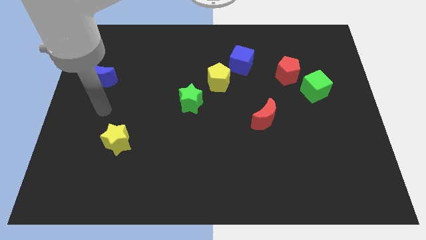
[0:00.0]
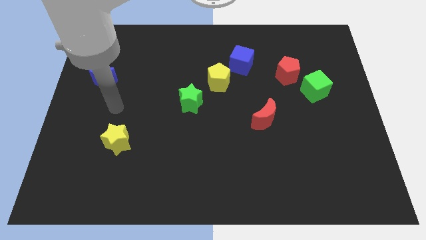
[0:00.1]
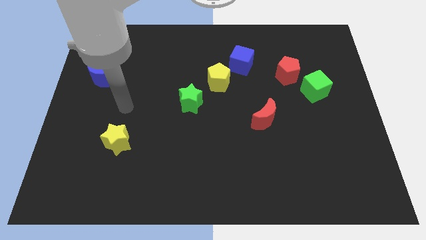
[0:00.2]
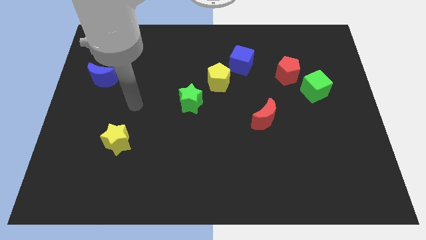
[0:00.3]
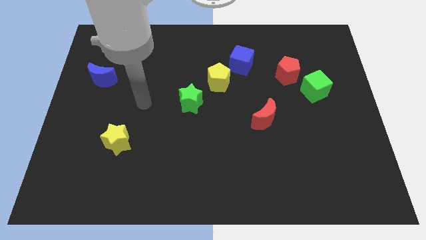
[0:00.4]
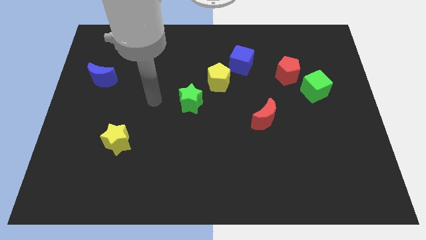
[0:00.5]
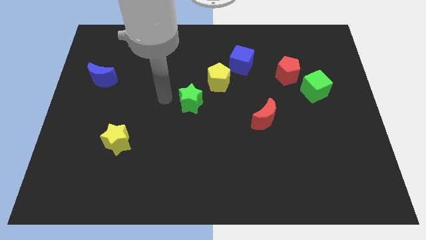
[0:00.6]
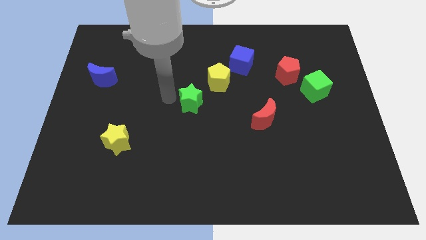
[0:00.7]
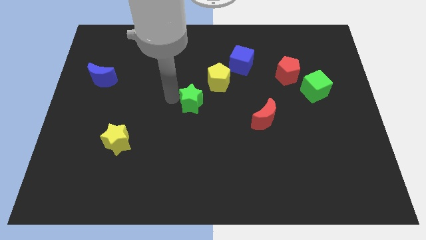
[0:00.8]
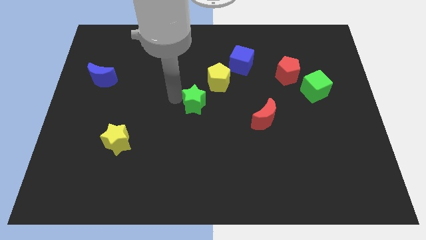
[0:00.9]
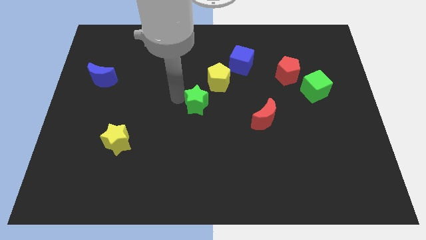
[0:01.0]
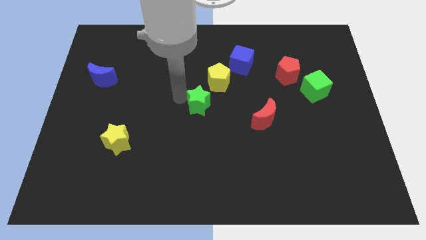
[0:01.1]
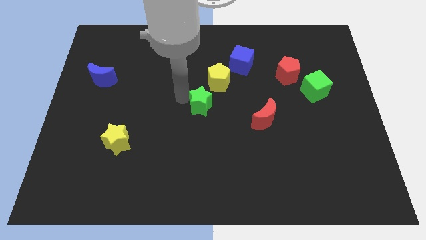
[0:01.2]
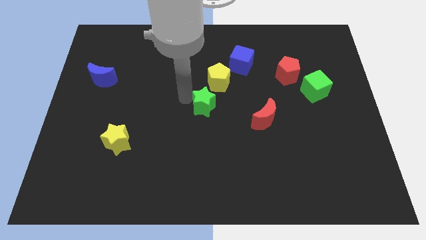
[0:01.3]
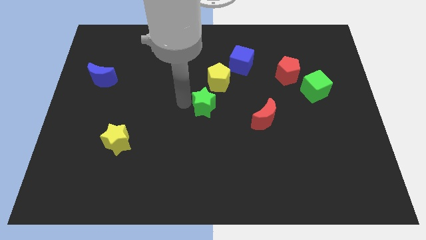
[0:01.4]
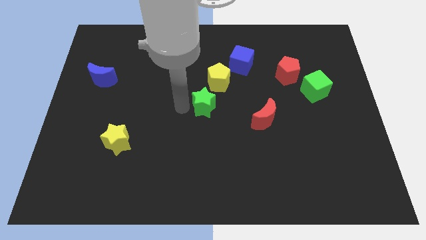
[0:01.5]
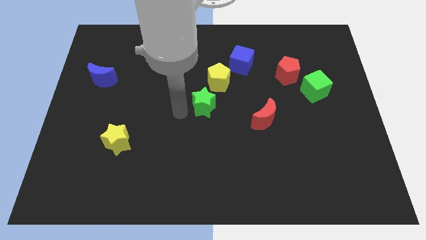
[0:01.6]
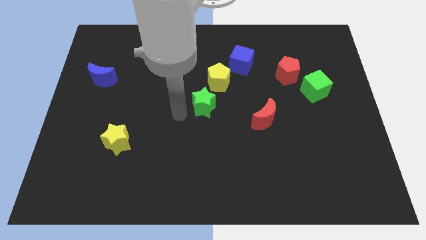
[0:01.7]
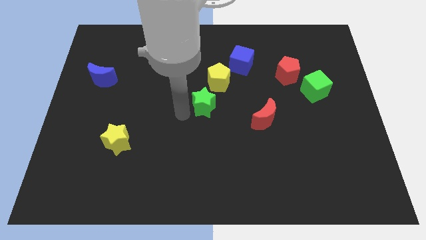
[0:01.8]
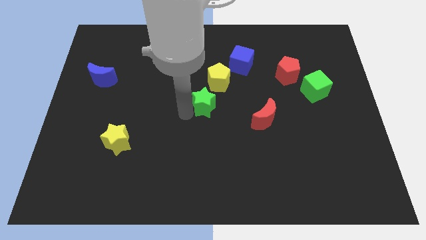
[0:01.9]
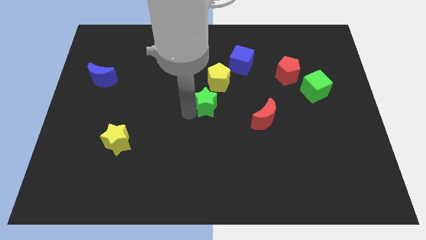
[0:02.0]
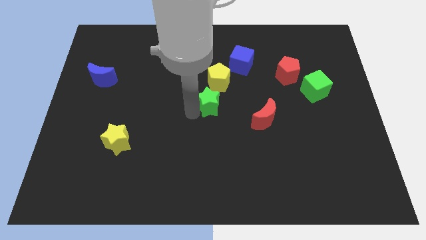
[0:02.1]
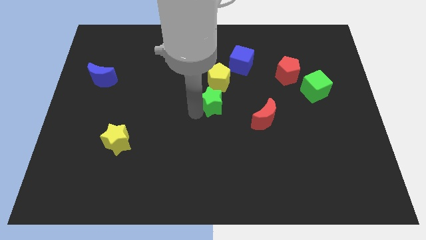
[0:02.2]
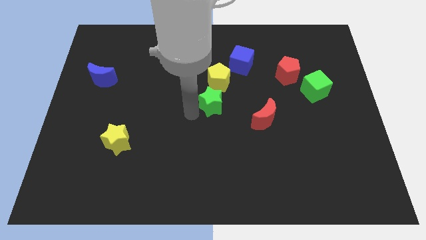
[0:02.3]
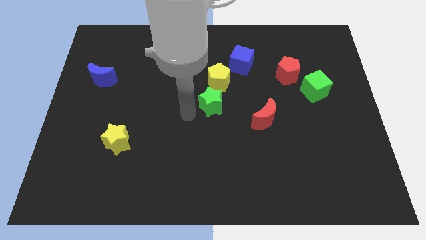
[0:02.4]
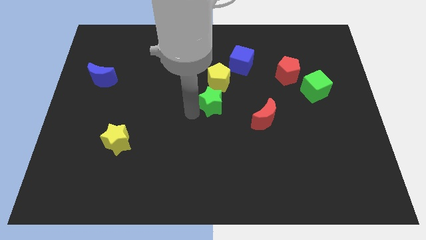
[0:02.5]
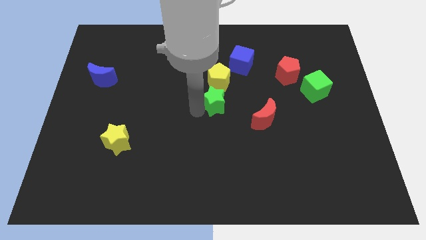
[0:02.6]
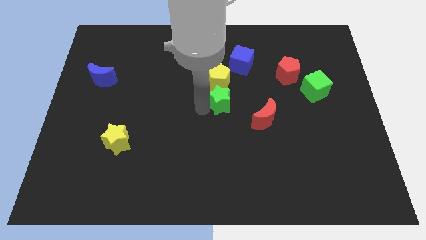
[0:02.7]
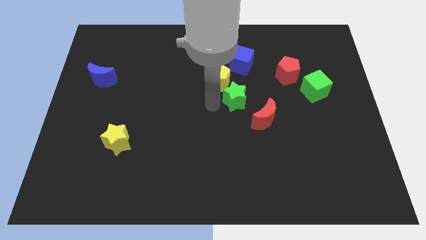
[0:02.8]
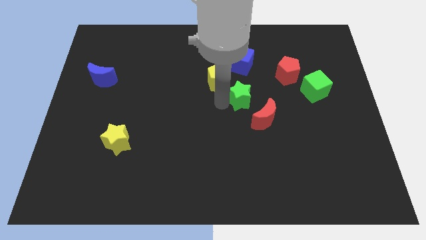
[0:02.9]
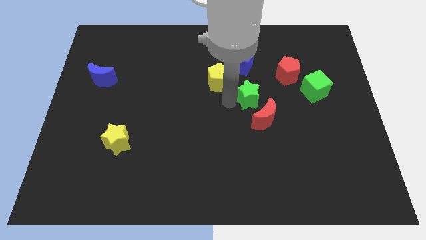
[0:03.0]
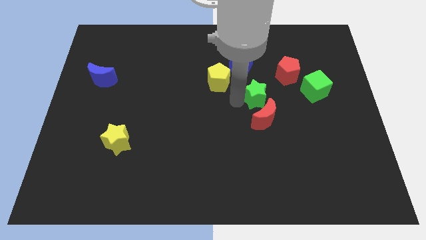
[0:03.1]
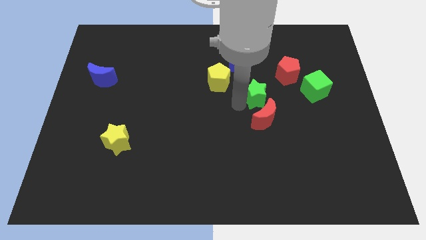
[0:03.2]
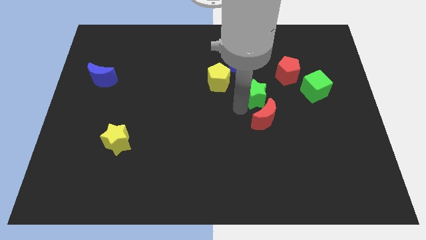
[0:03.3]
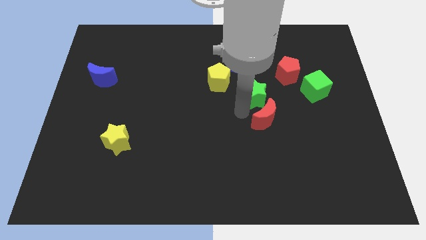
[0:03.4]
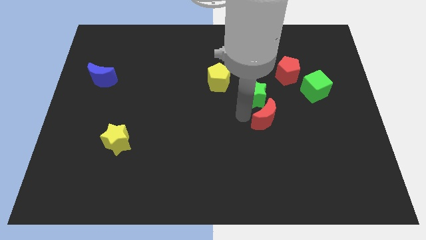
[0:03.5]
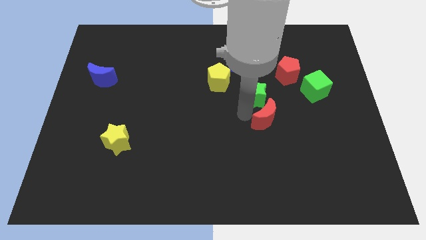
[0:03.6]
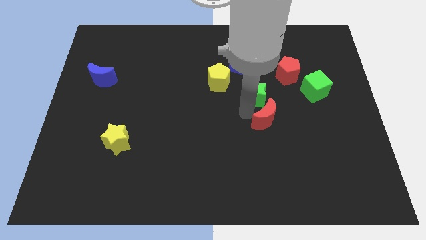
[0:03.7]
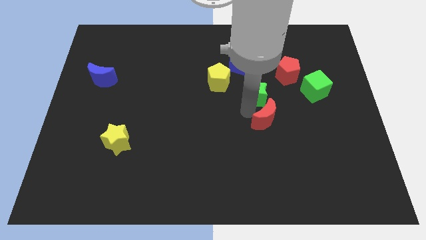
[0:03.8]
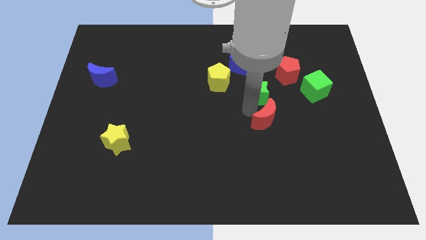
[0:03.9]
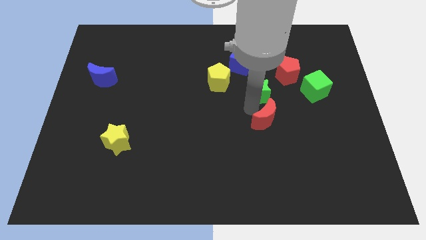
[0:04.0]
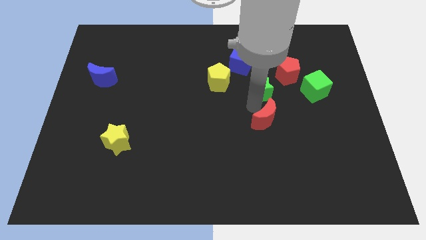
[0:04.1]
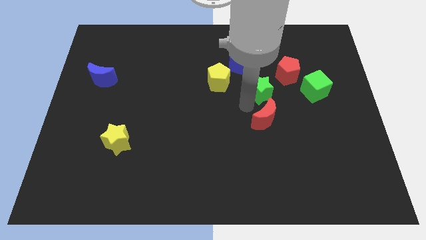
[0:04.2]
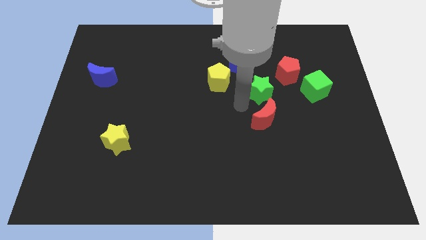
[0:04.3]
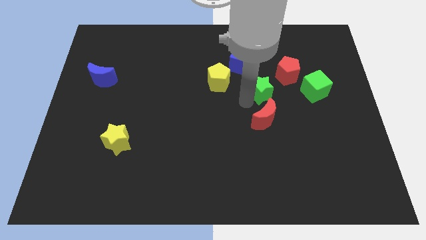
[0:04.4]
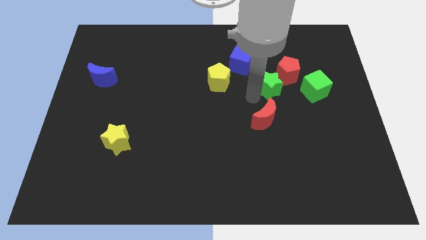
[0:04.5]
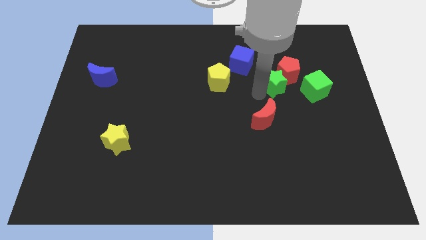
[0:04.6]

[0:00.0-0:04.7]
put the green star towards the red pentagon

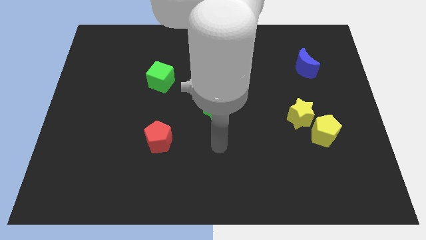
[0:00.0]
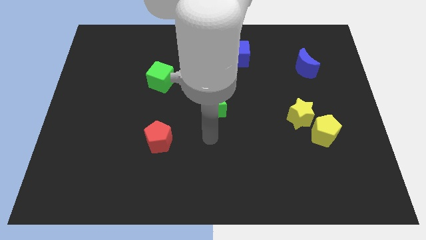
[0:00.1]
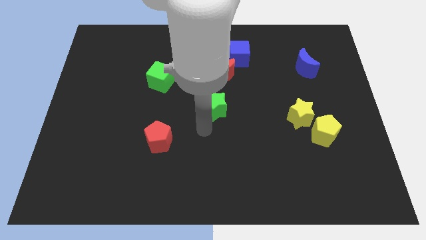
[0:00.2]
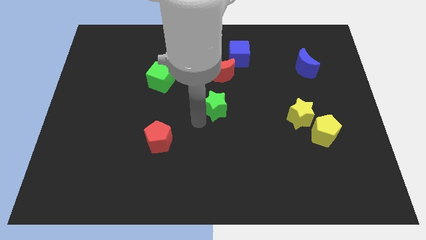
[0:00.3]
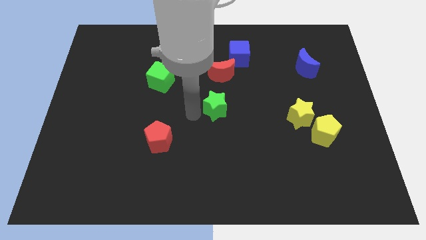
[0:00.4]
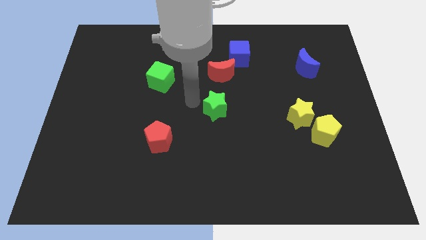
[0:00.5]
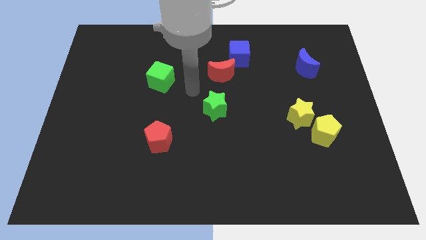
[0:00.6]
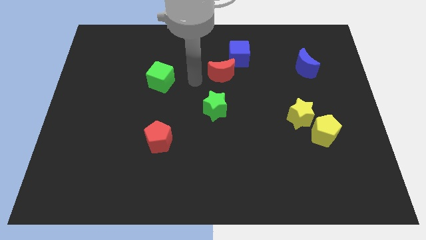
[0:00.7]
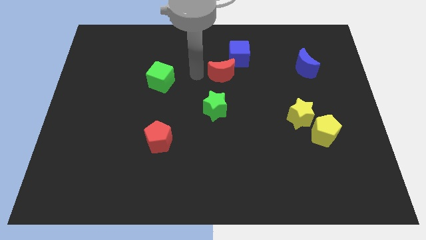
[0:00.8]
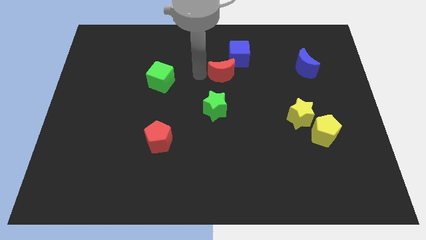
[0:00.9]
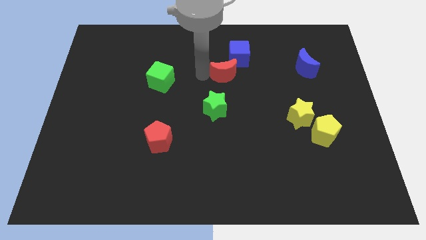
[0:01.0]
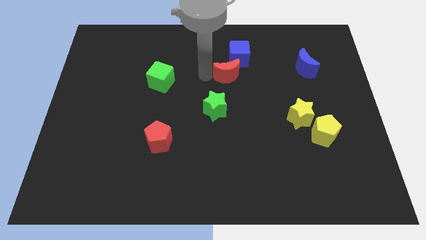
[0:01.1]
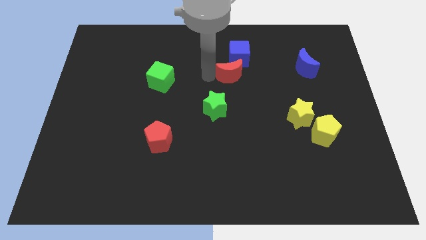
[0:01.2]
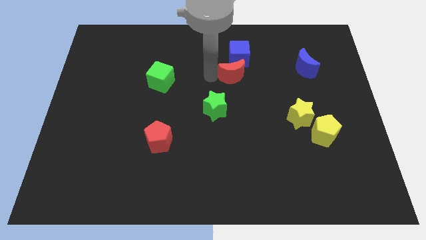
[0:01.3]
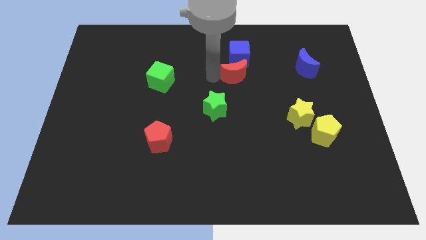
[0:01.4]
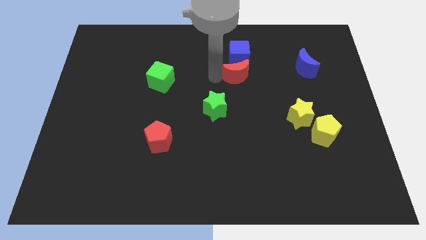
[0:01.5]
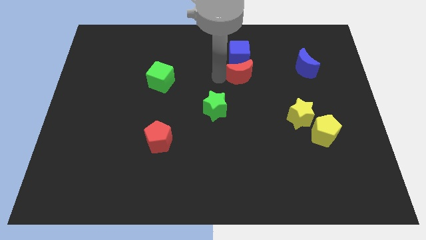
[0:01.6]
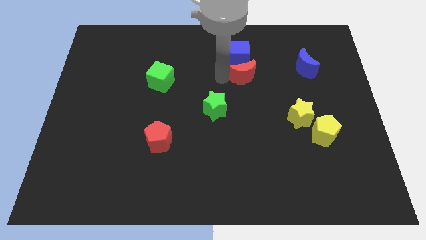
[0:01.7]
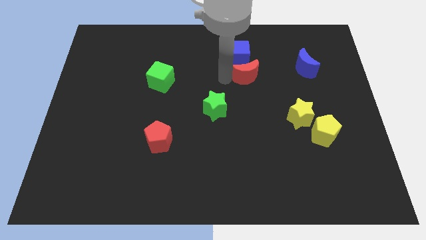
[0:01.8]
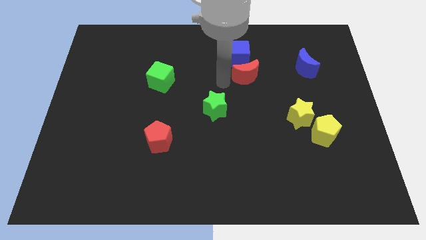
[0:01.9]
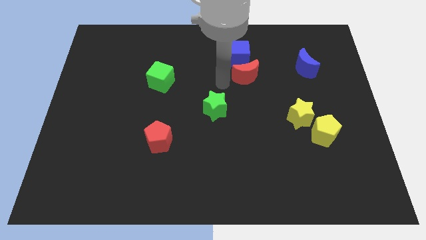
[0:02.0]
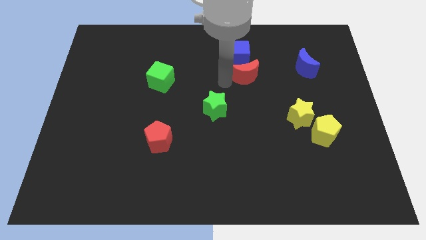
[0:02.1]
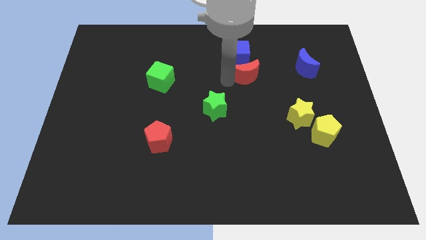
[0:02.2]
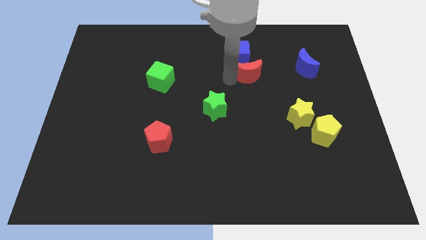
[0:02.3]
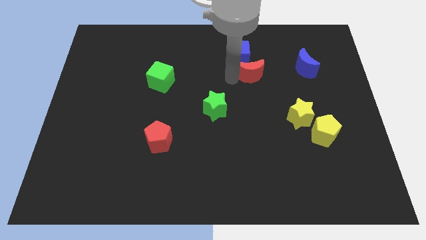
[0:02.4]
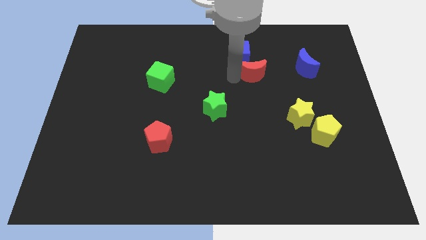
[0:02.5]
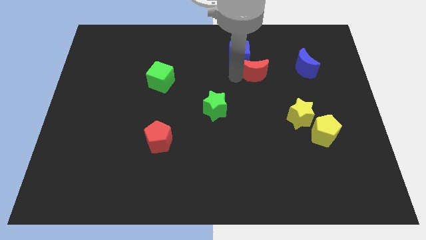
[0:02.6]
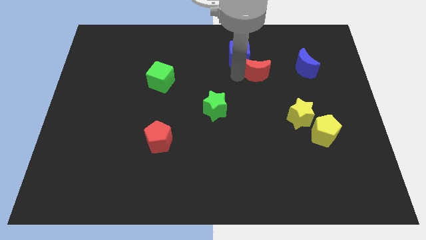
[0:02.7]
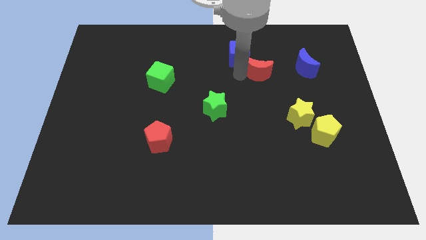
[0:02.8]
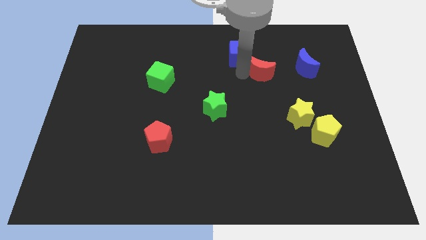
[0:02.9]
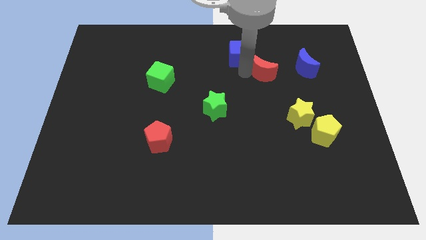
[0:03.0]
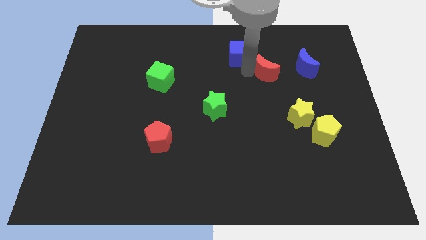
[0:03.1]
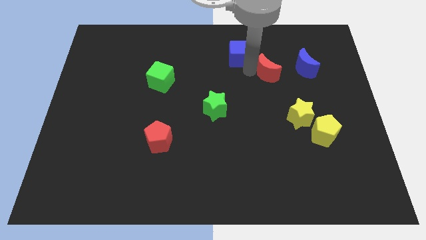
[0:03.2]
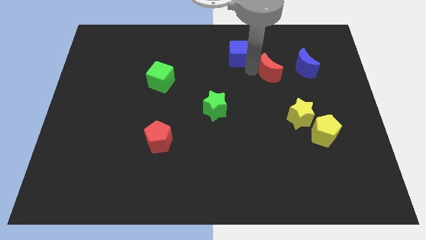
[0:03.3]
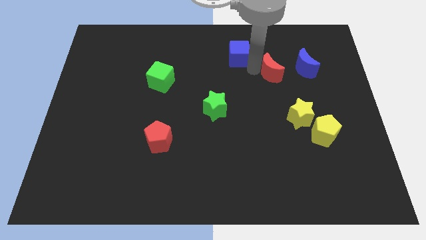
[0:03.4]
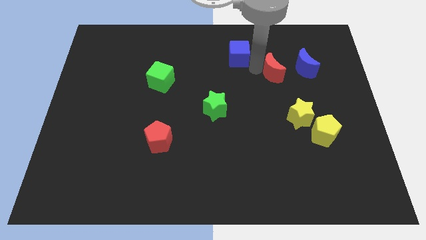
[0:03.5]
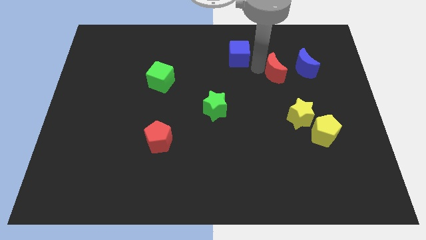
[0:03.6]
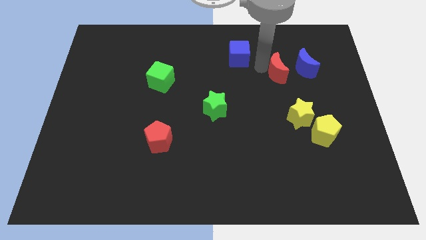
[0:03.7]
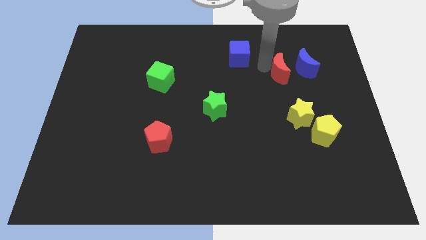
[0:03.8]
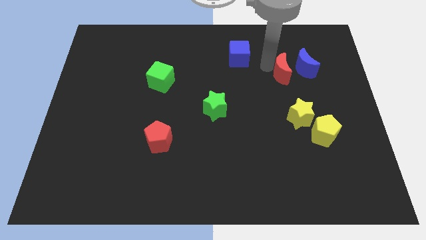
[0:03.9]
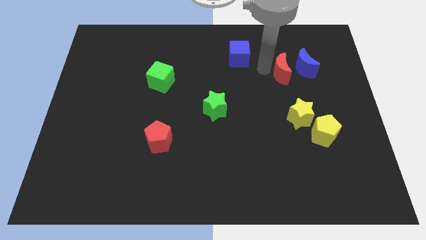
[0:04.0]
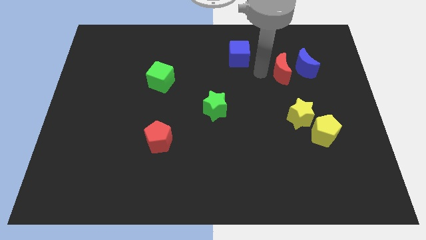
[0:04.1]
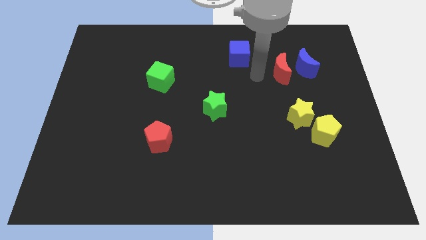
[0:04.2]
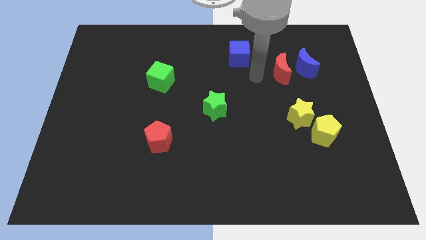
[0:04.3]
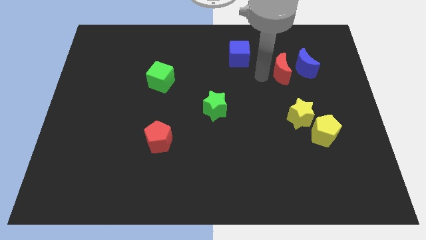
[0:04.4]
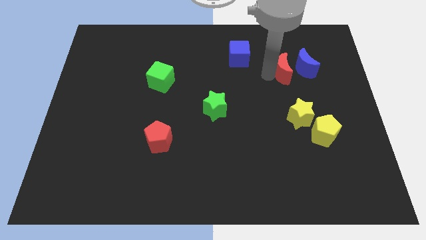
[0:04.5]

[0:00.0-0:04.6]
move the red moon to the blue moon
